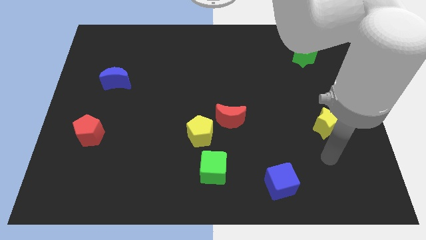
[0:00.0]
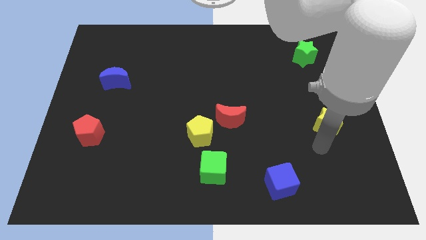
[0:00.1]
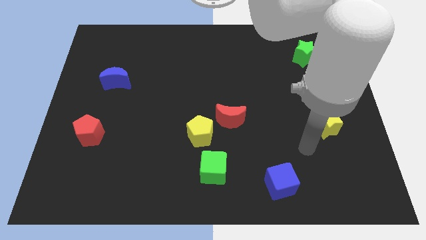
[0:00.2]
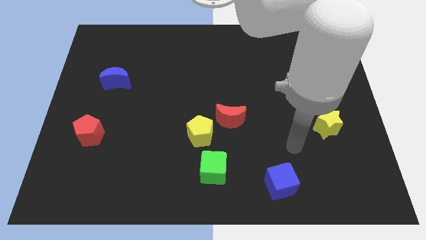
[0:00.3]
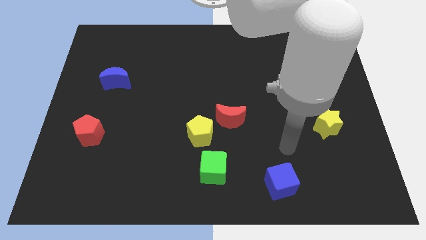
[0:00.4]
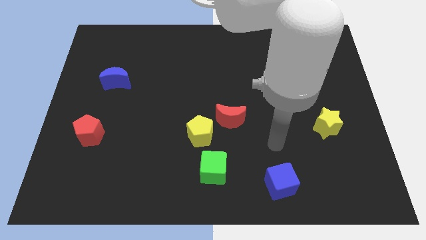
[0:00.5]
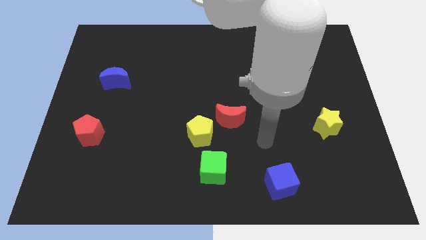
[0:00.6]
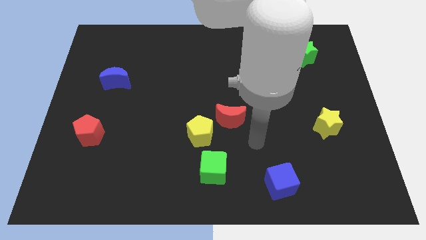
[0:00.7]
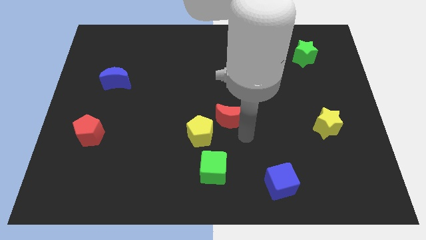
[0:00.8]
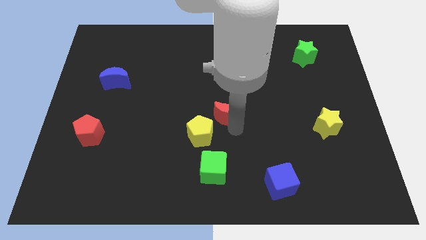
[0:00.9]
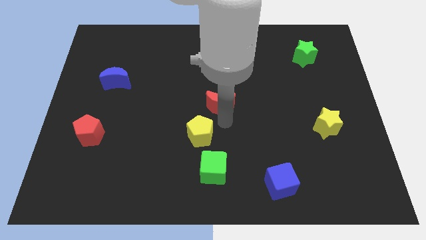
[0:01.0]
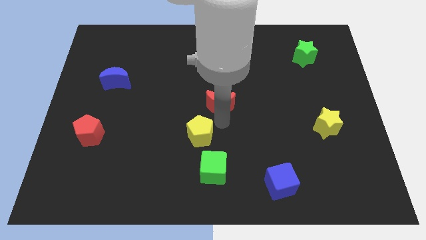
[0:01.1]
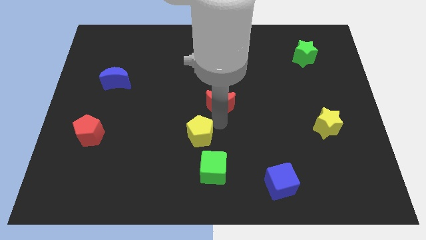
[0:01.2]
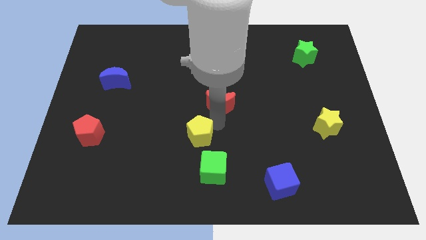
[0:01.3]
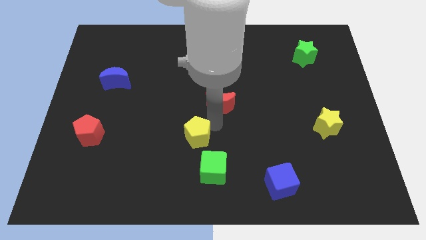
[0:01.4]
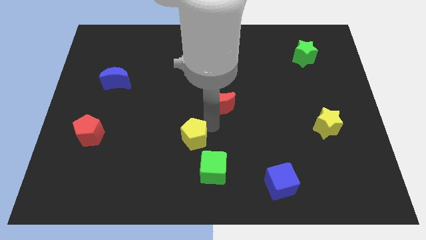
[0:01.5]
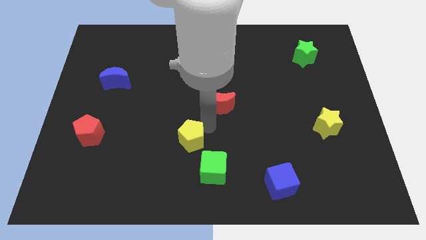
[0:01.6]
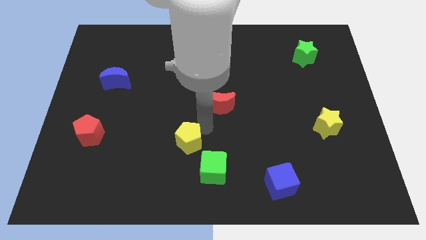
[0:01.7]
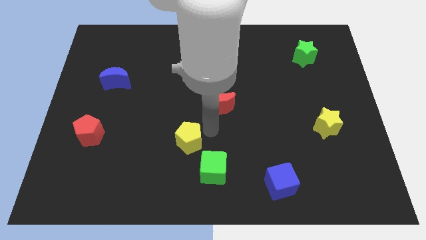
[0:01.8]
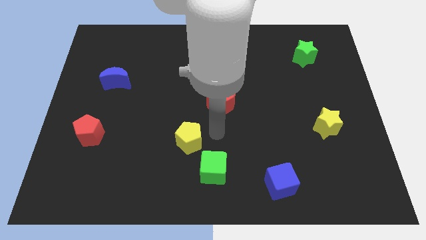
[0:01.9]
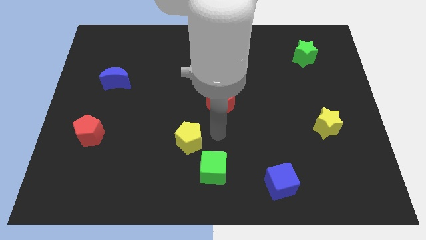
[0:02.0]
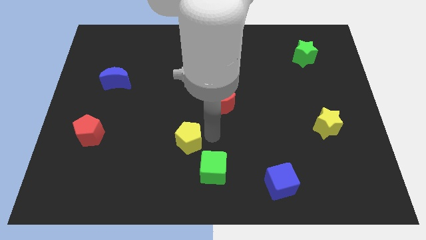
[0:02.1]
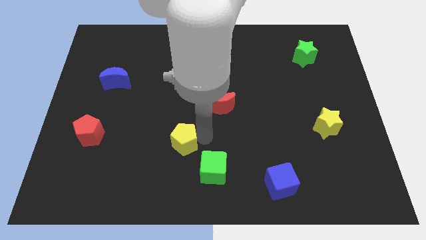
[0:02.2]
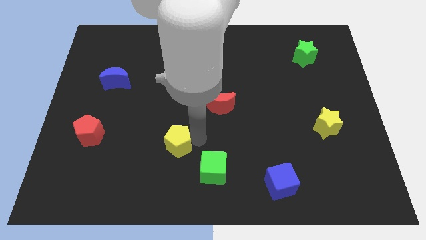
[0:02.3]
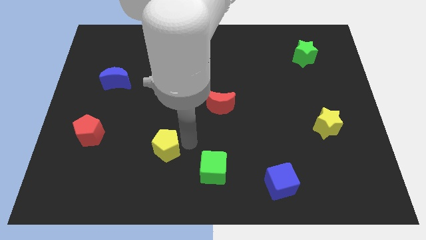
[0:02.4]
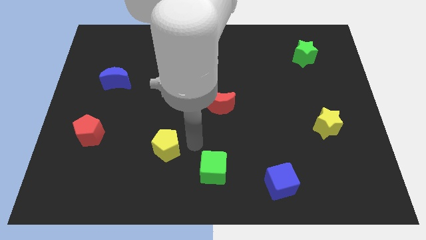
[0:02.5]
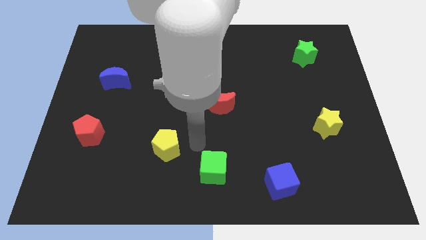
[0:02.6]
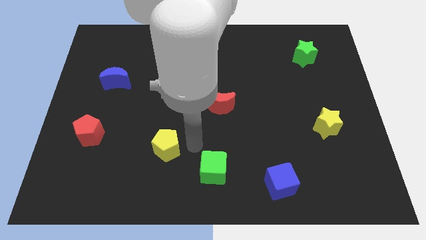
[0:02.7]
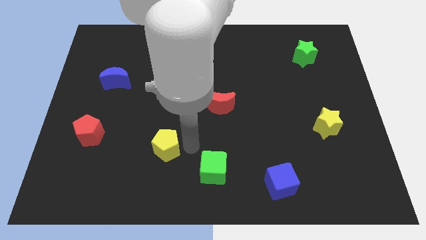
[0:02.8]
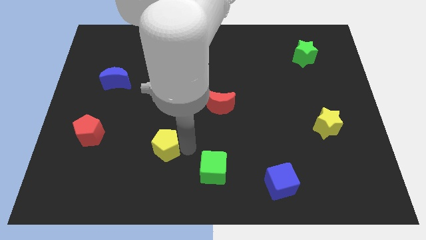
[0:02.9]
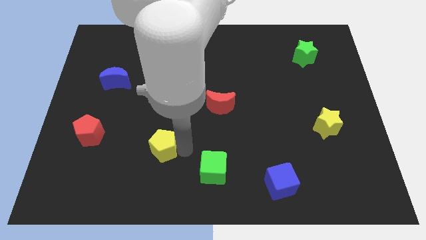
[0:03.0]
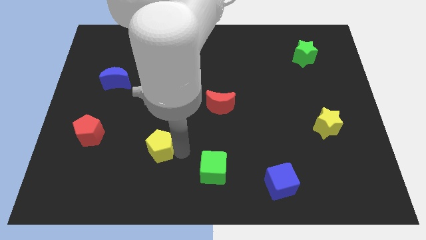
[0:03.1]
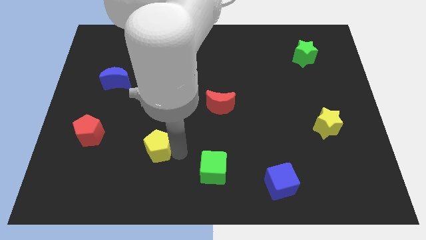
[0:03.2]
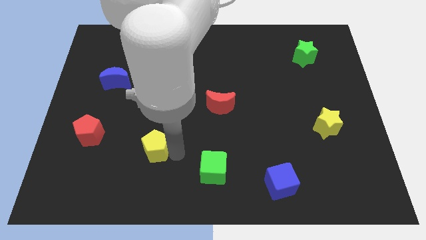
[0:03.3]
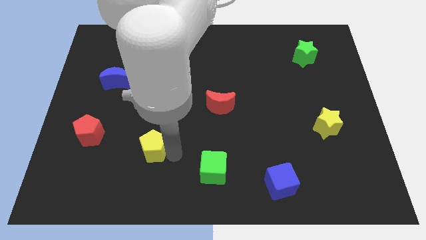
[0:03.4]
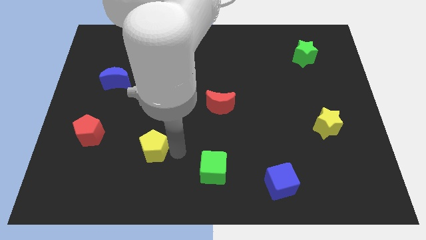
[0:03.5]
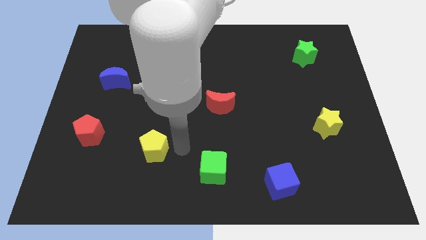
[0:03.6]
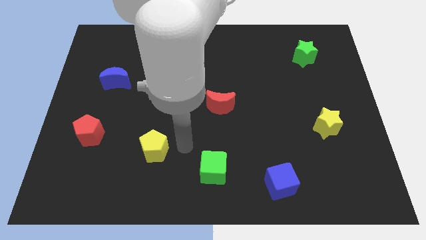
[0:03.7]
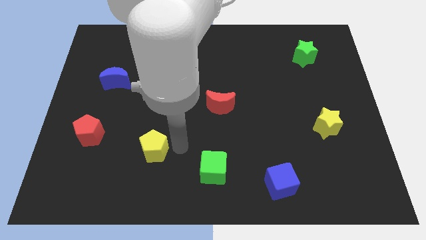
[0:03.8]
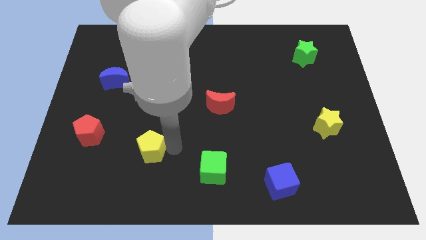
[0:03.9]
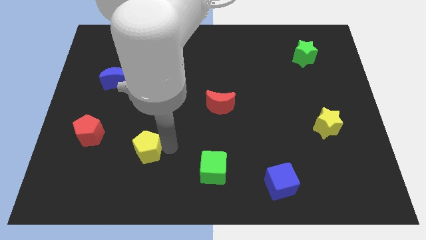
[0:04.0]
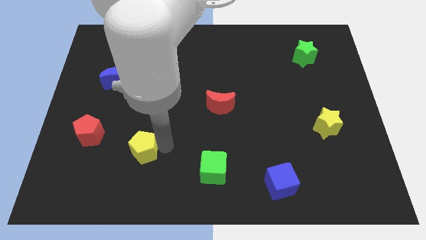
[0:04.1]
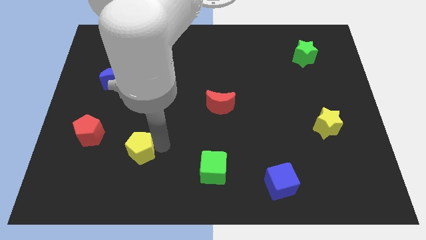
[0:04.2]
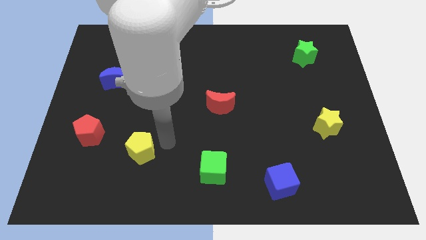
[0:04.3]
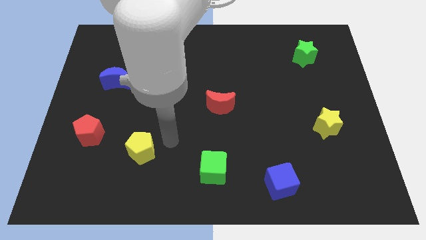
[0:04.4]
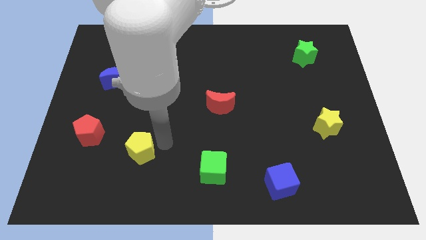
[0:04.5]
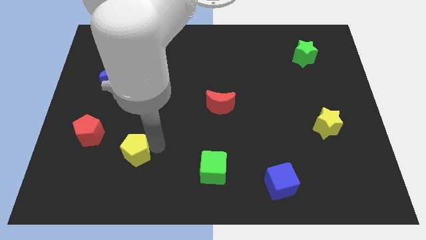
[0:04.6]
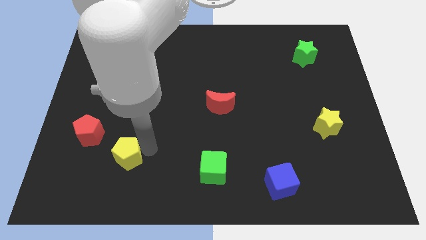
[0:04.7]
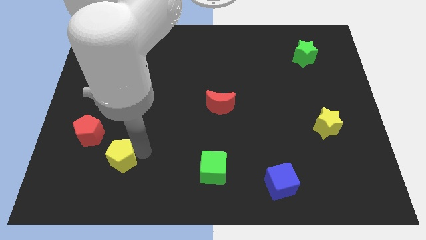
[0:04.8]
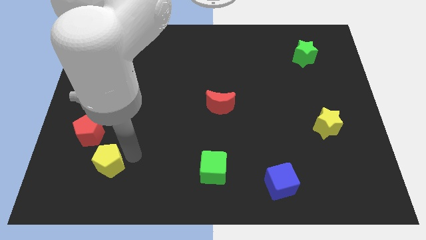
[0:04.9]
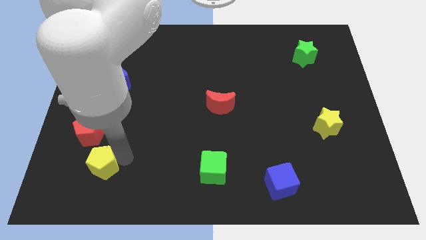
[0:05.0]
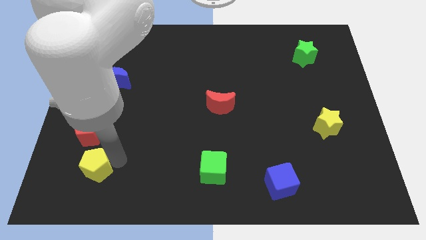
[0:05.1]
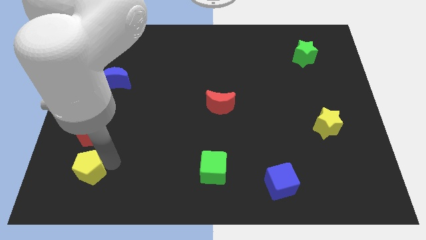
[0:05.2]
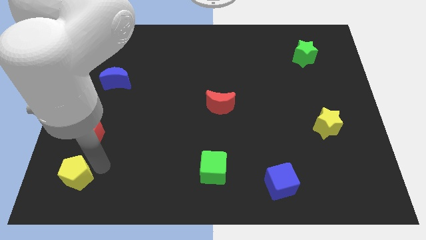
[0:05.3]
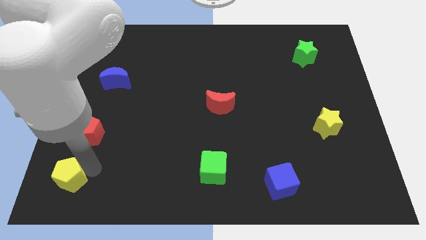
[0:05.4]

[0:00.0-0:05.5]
put the yellow pentagon to the bottom left
